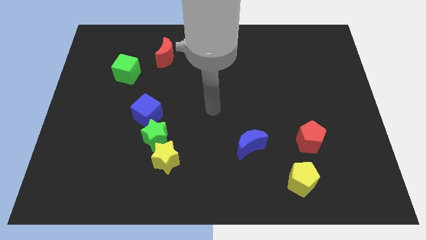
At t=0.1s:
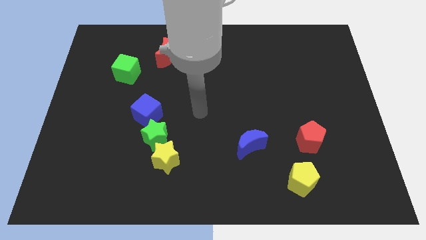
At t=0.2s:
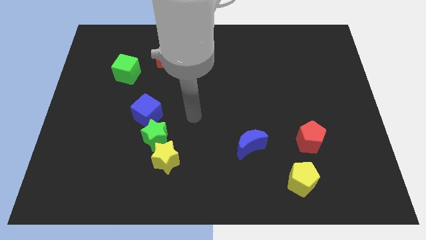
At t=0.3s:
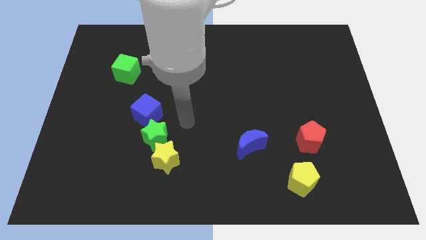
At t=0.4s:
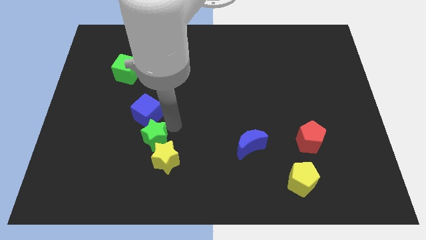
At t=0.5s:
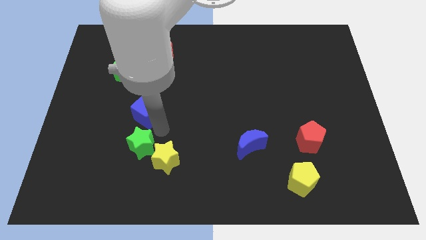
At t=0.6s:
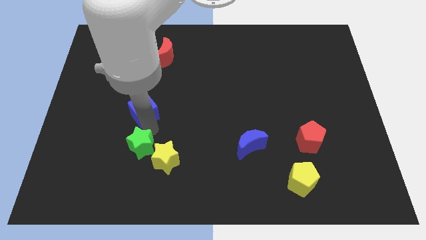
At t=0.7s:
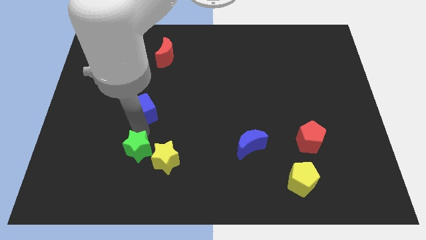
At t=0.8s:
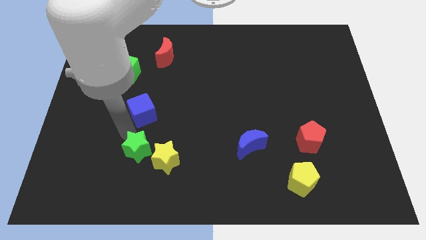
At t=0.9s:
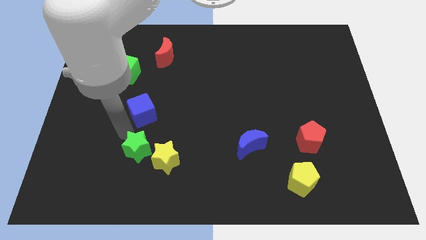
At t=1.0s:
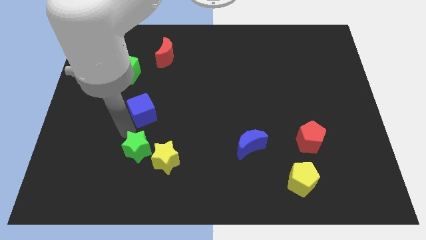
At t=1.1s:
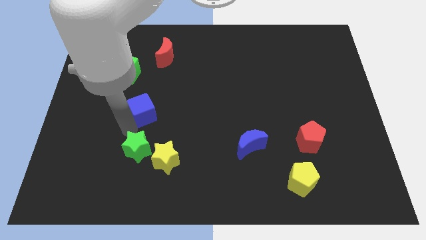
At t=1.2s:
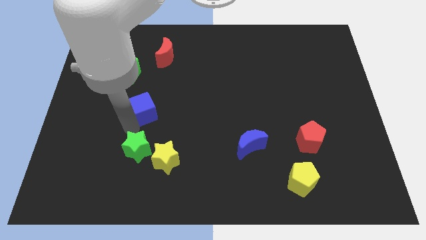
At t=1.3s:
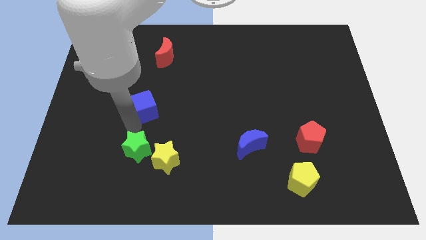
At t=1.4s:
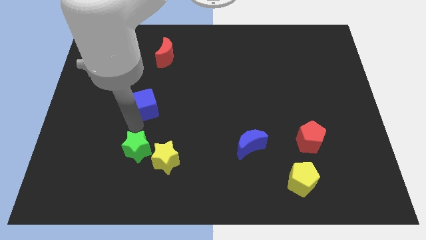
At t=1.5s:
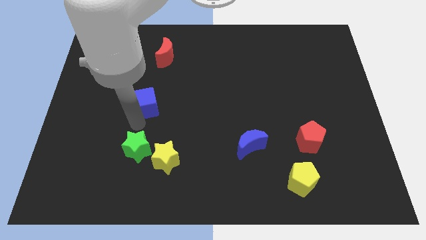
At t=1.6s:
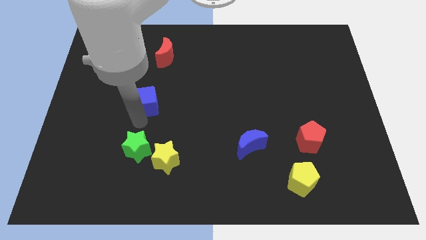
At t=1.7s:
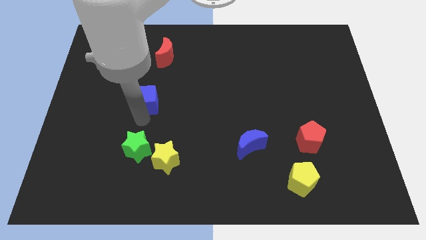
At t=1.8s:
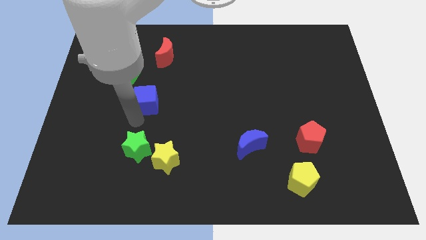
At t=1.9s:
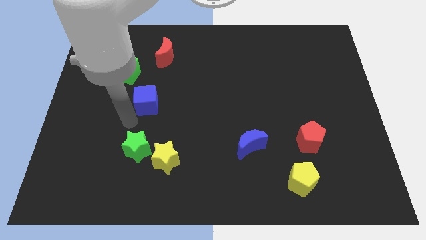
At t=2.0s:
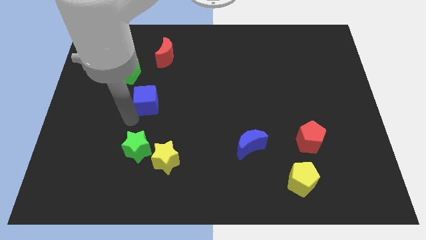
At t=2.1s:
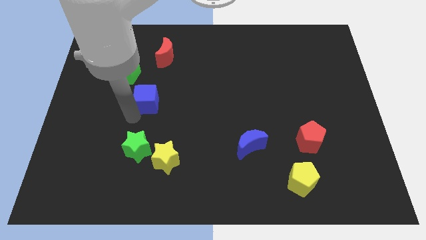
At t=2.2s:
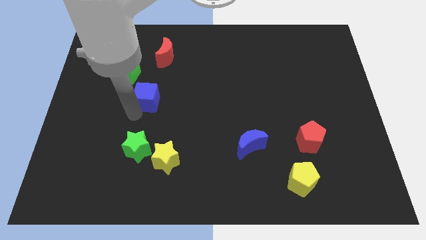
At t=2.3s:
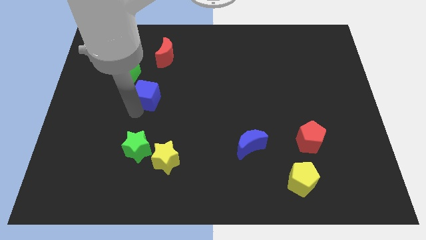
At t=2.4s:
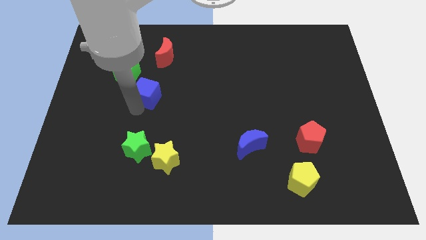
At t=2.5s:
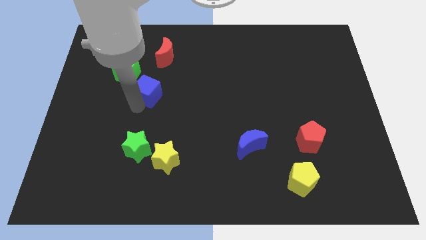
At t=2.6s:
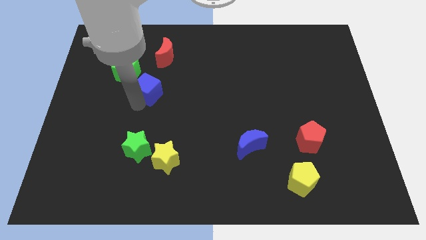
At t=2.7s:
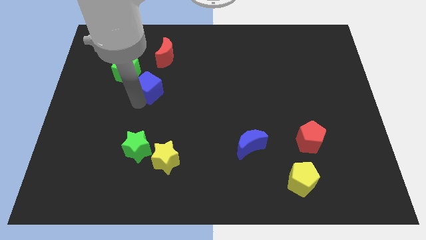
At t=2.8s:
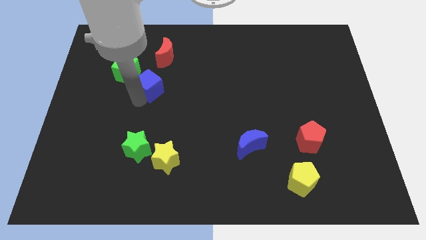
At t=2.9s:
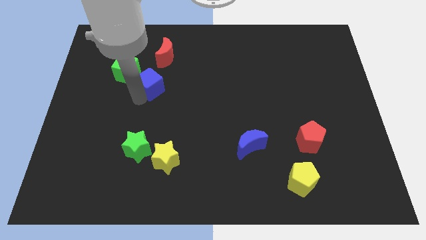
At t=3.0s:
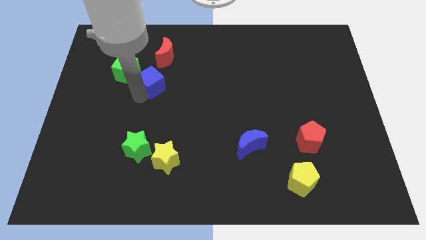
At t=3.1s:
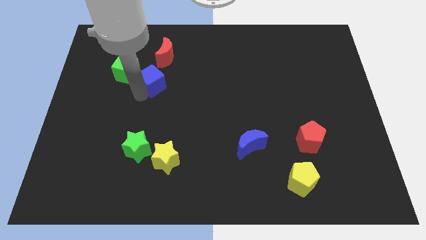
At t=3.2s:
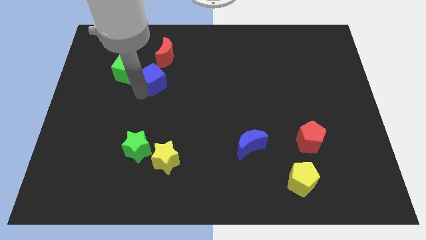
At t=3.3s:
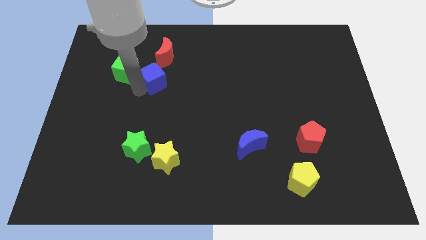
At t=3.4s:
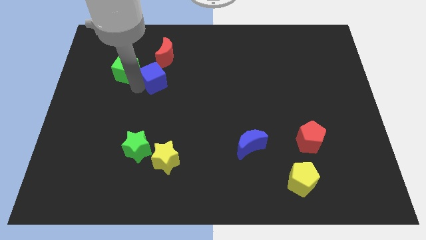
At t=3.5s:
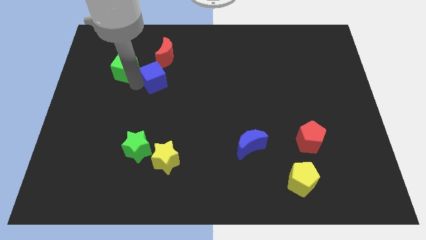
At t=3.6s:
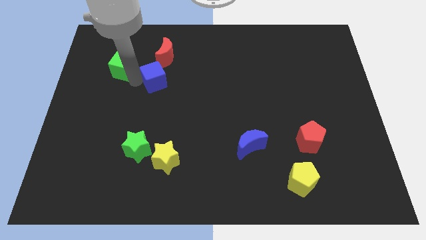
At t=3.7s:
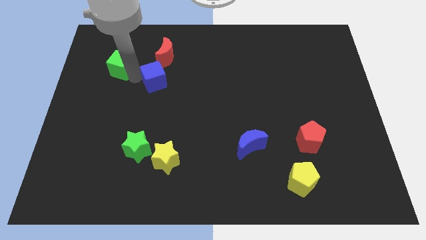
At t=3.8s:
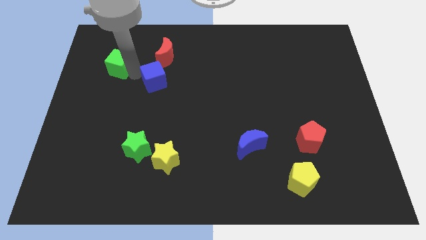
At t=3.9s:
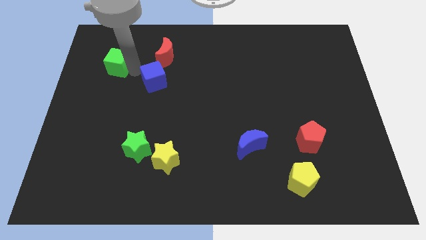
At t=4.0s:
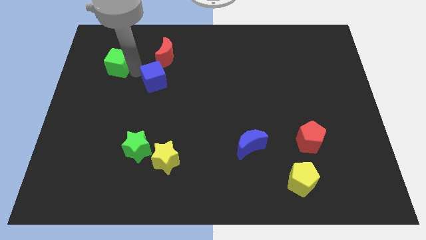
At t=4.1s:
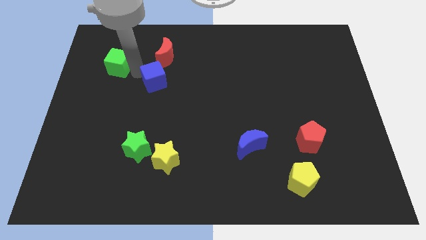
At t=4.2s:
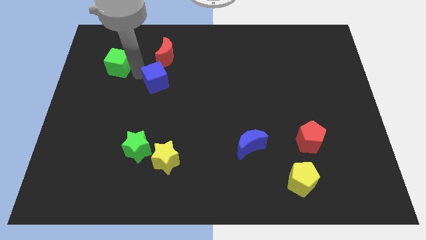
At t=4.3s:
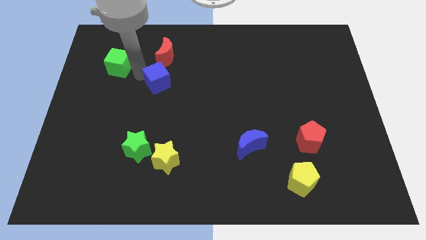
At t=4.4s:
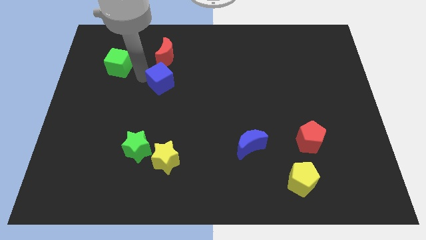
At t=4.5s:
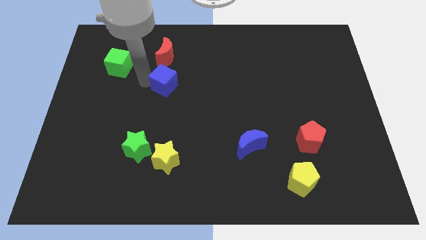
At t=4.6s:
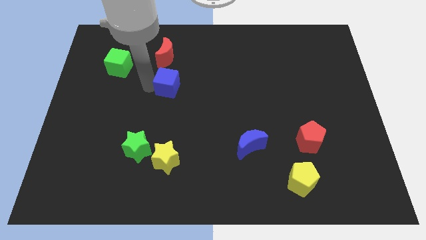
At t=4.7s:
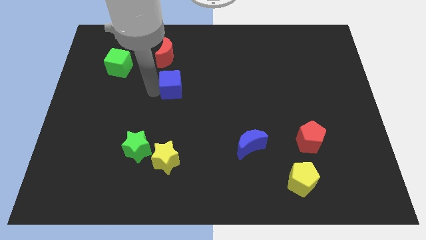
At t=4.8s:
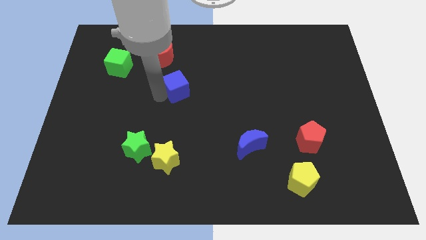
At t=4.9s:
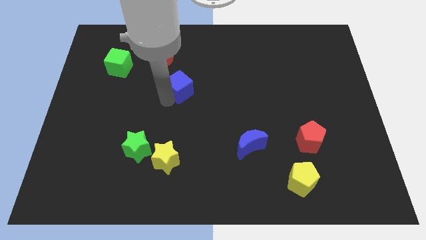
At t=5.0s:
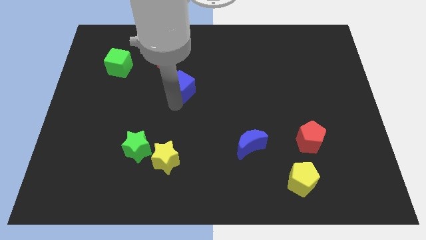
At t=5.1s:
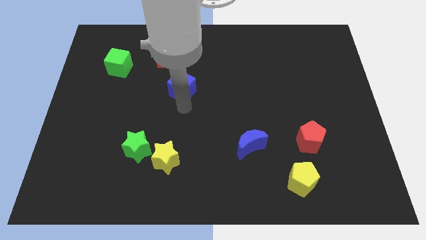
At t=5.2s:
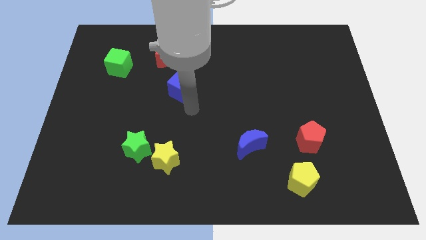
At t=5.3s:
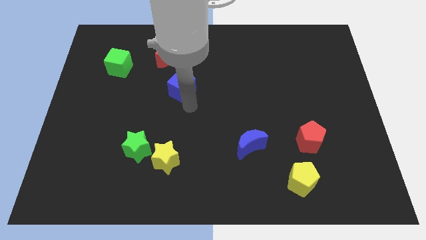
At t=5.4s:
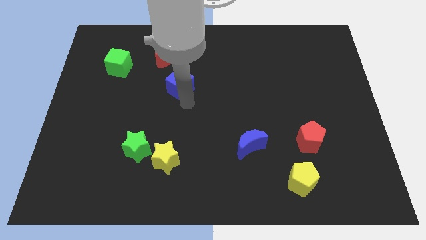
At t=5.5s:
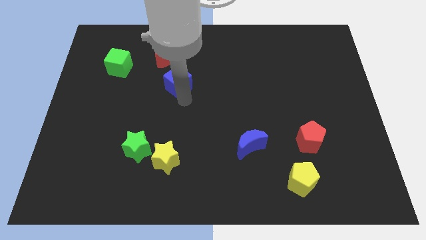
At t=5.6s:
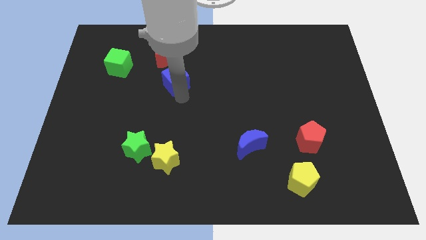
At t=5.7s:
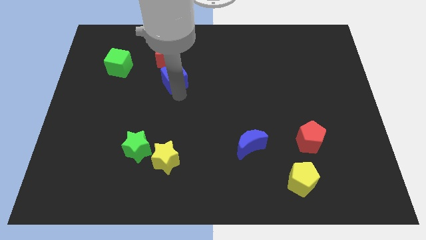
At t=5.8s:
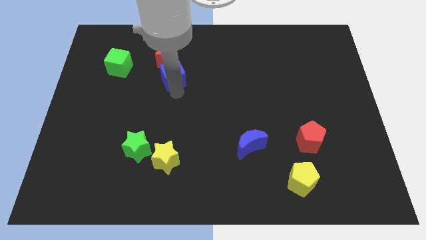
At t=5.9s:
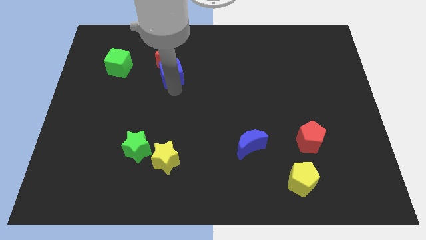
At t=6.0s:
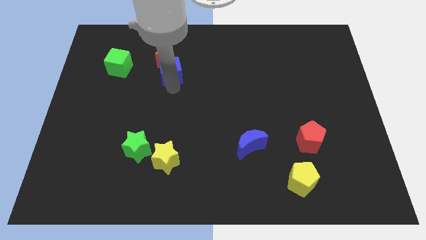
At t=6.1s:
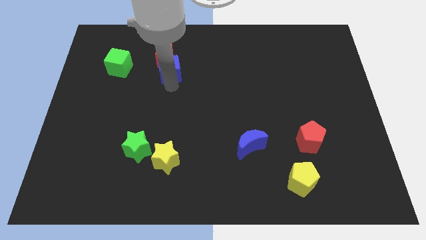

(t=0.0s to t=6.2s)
move the blue cube close to the red moon
